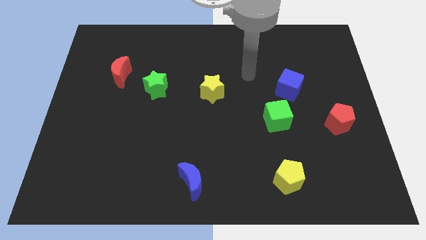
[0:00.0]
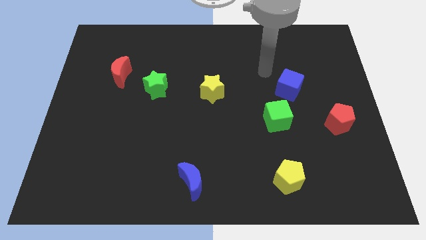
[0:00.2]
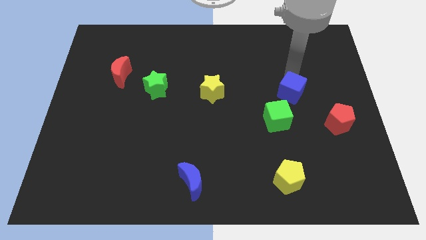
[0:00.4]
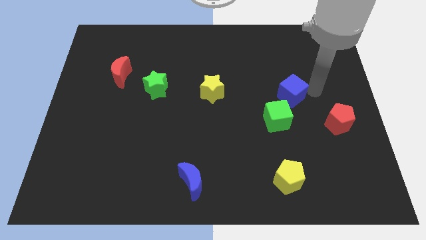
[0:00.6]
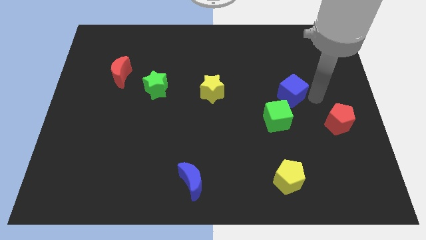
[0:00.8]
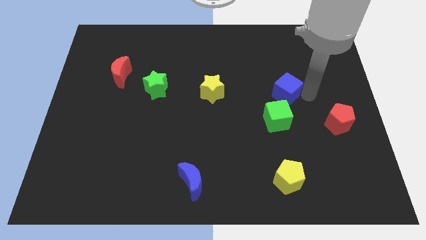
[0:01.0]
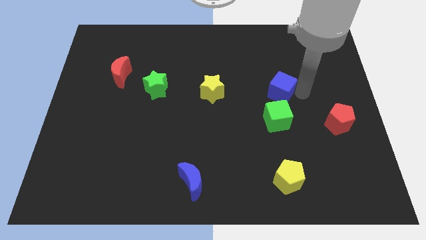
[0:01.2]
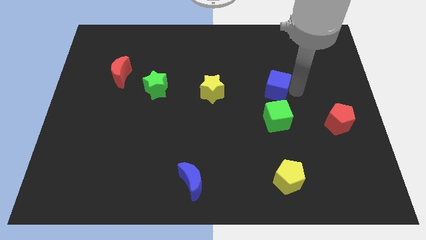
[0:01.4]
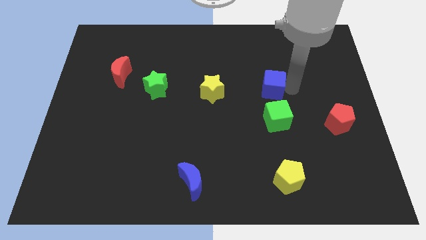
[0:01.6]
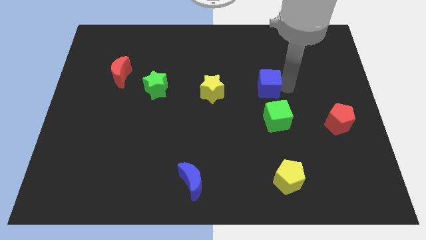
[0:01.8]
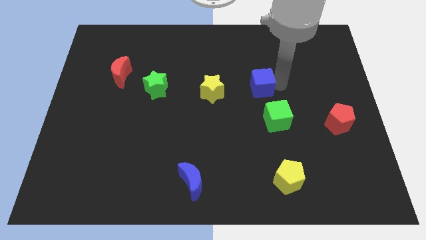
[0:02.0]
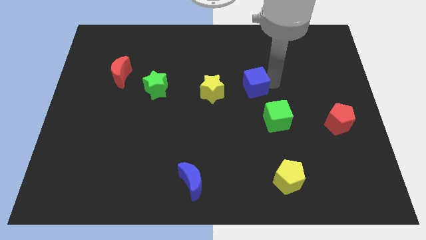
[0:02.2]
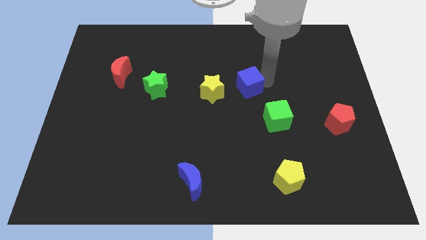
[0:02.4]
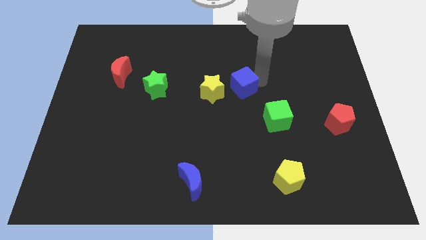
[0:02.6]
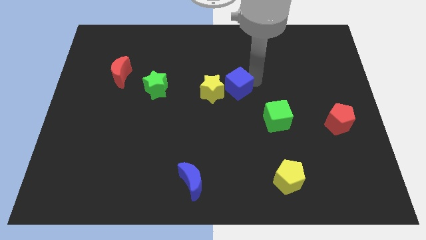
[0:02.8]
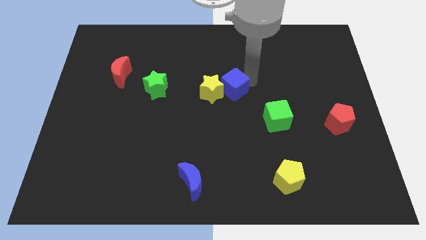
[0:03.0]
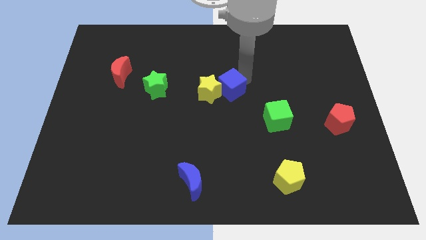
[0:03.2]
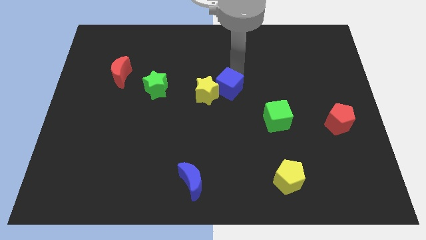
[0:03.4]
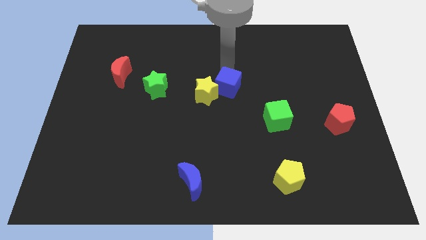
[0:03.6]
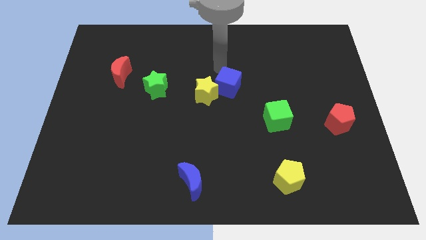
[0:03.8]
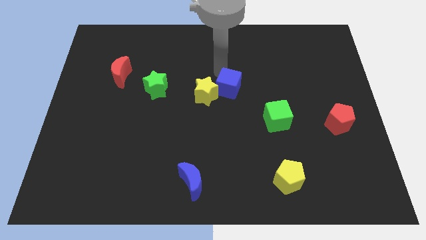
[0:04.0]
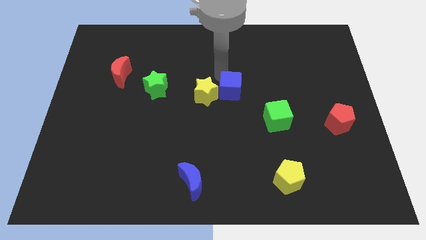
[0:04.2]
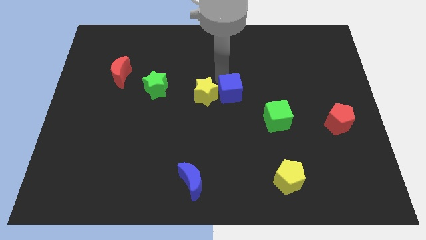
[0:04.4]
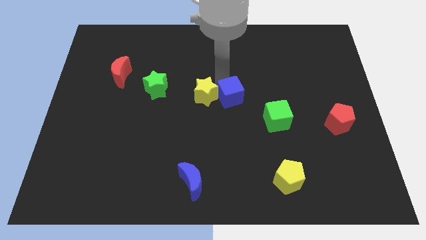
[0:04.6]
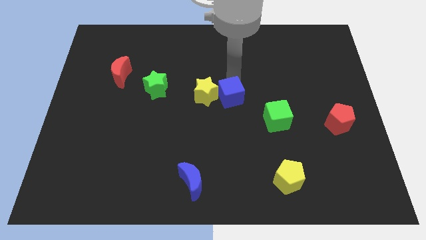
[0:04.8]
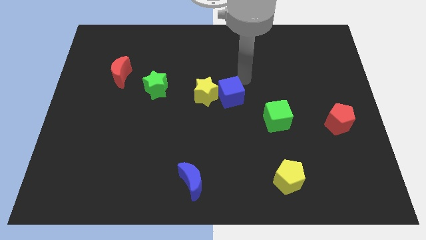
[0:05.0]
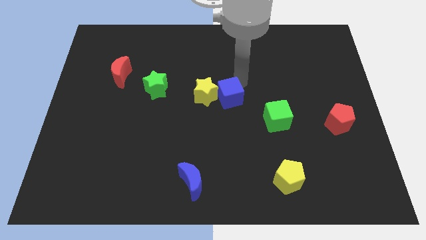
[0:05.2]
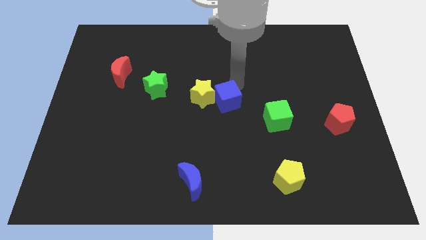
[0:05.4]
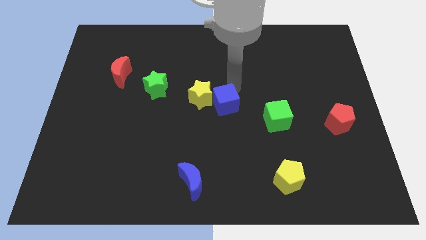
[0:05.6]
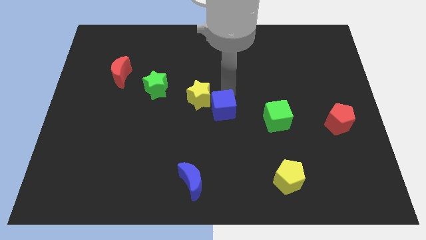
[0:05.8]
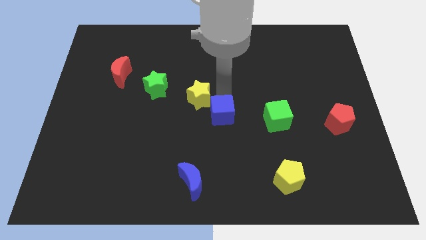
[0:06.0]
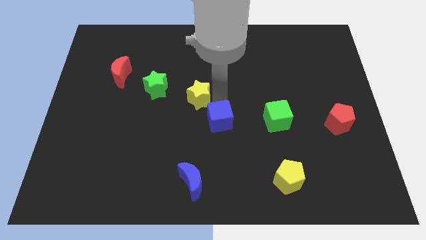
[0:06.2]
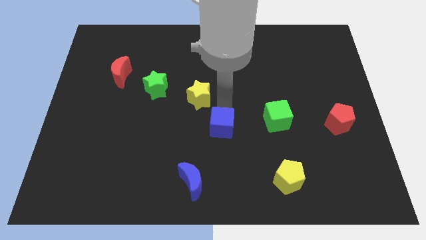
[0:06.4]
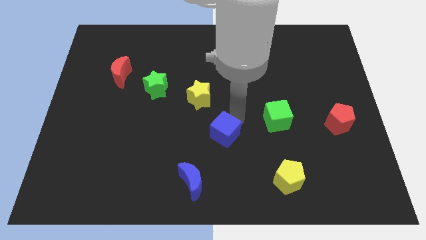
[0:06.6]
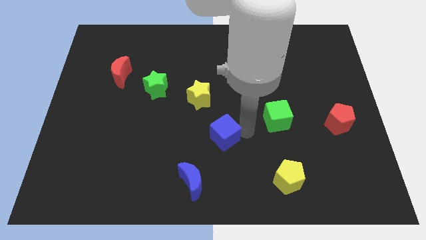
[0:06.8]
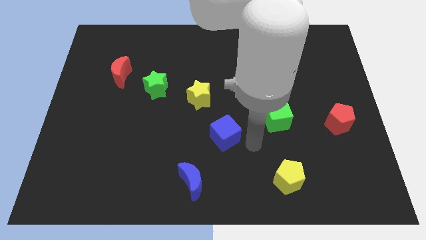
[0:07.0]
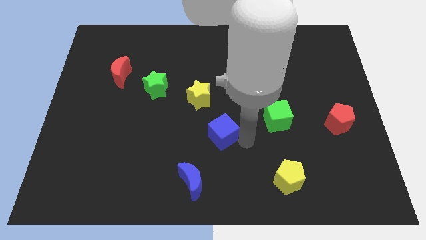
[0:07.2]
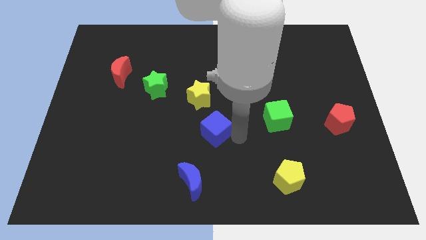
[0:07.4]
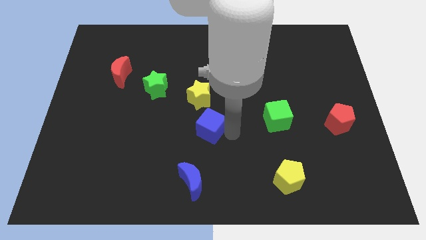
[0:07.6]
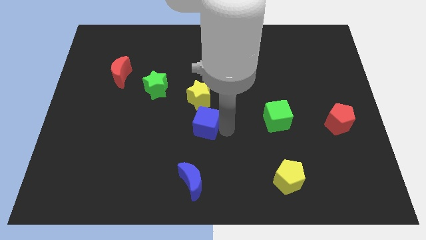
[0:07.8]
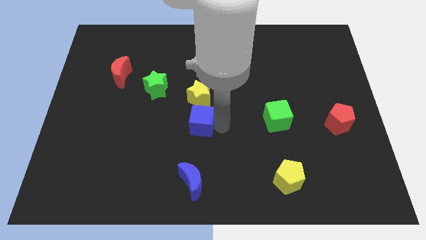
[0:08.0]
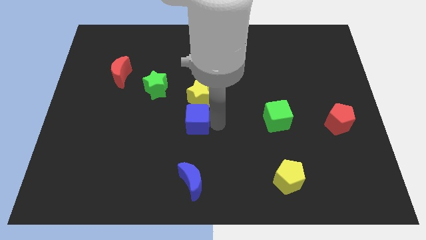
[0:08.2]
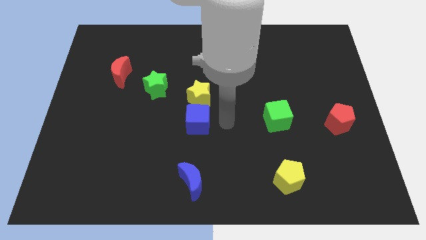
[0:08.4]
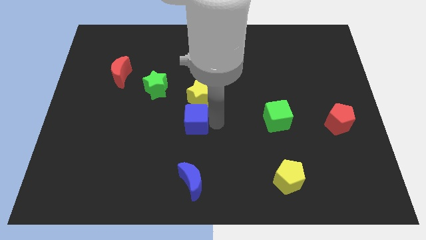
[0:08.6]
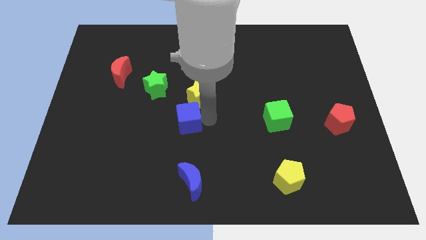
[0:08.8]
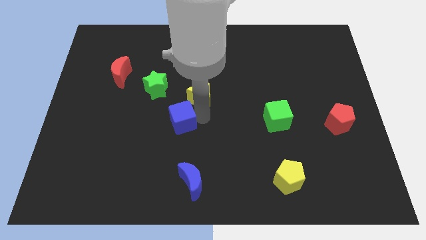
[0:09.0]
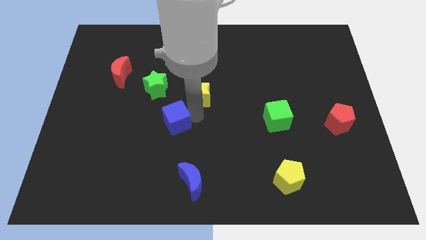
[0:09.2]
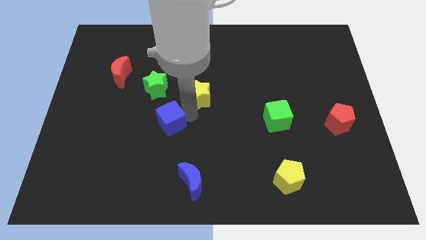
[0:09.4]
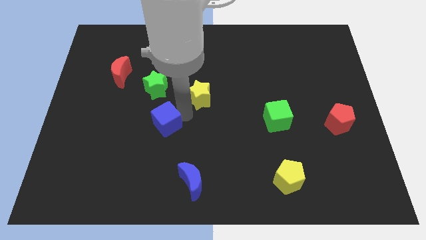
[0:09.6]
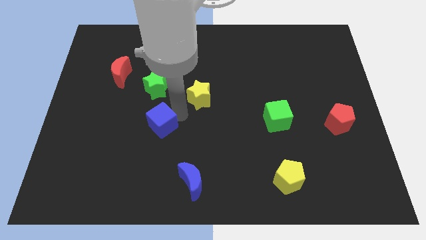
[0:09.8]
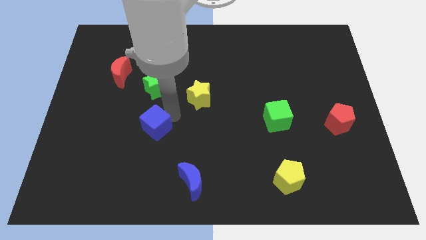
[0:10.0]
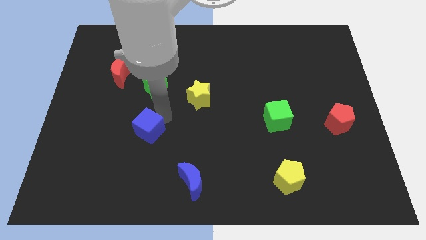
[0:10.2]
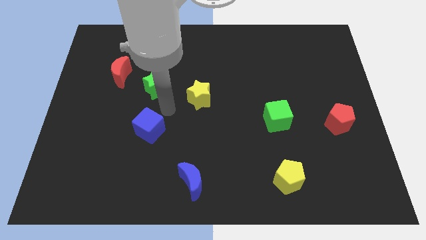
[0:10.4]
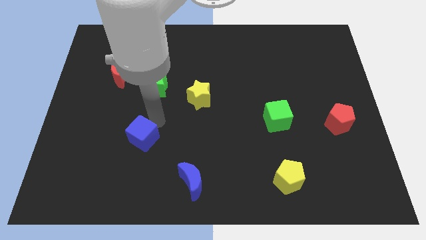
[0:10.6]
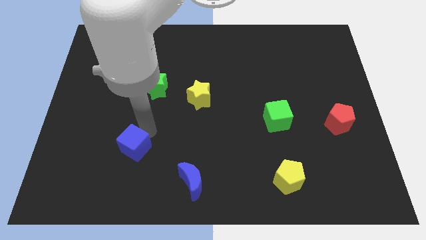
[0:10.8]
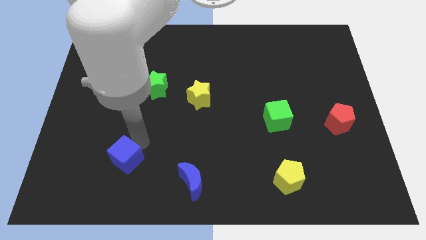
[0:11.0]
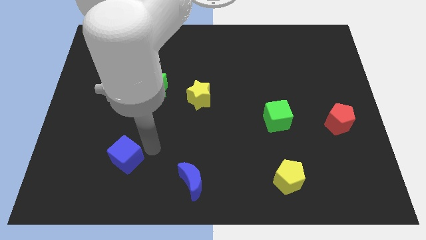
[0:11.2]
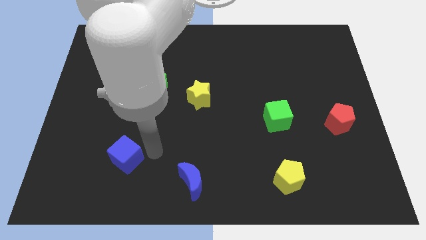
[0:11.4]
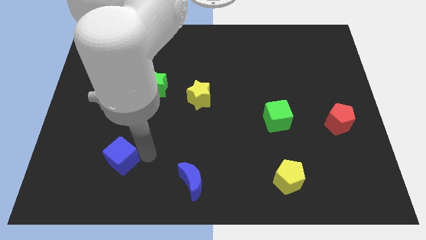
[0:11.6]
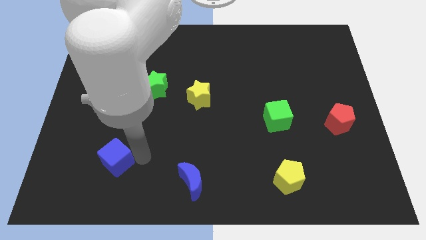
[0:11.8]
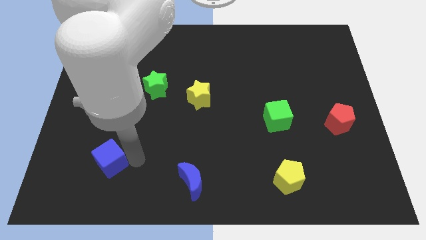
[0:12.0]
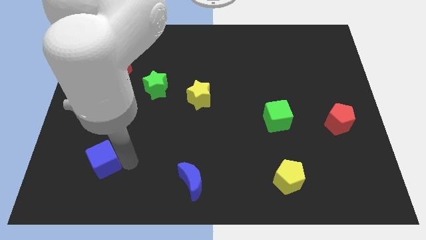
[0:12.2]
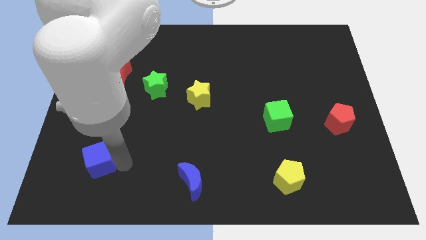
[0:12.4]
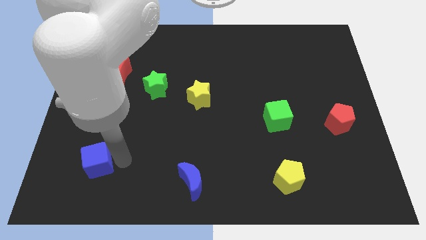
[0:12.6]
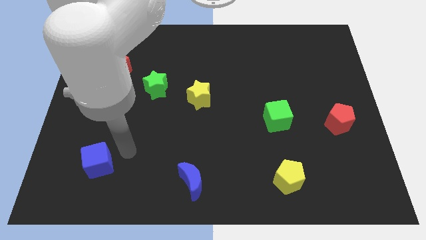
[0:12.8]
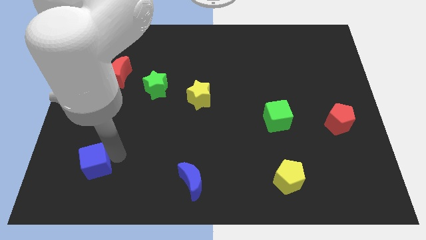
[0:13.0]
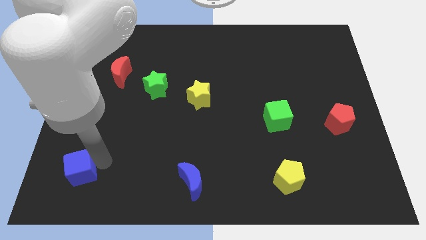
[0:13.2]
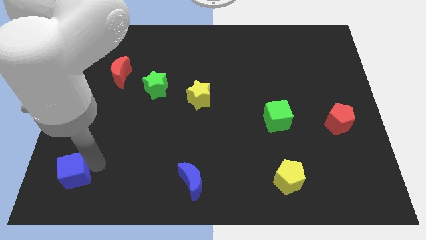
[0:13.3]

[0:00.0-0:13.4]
put the blue cube to the bottom left corner

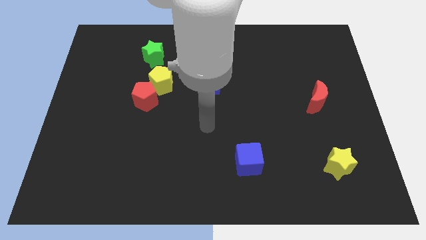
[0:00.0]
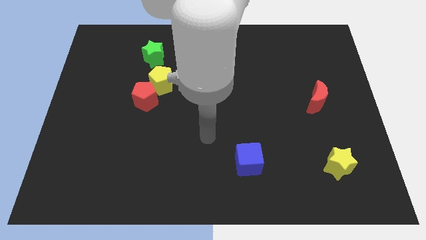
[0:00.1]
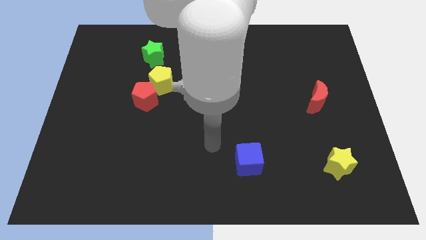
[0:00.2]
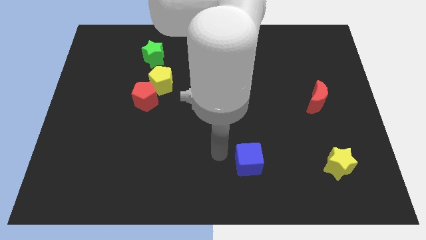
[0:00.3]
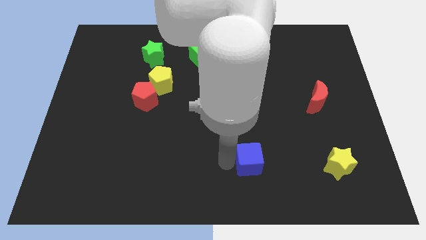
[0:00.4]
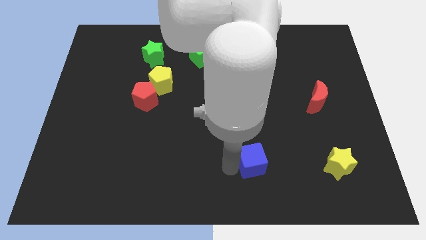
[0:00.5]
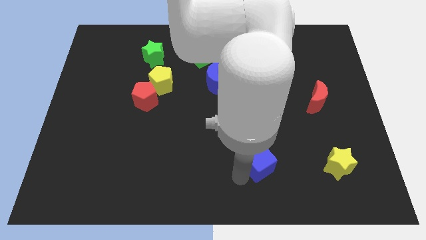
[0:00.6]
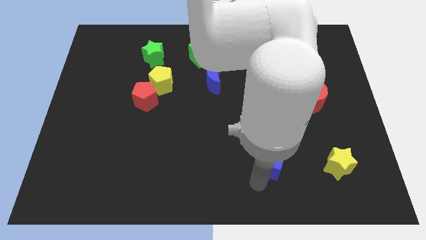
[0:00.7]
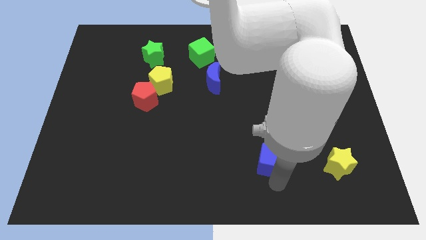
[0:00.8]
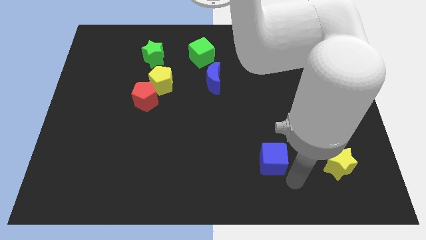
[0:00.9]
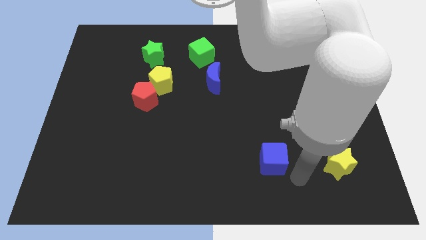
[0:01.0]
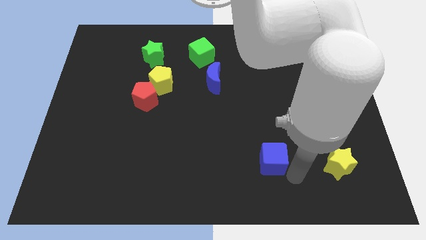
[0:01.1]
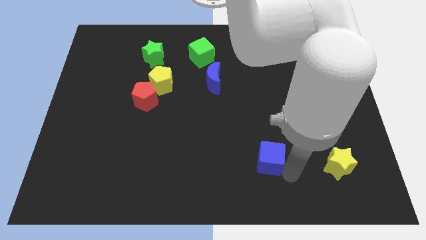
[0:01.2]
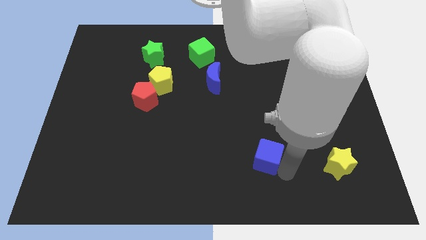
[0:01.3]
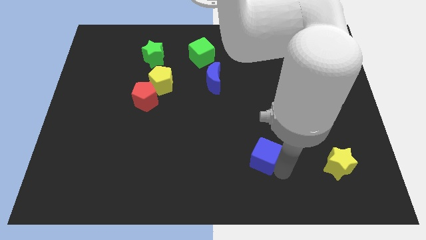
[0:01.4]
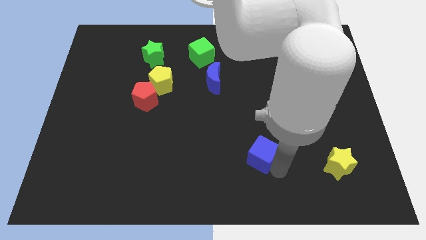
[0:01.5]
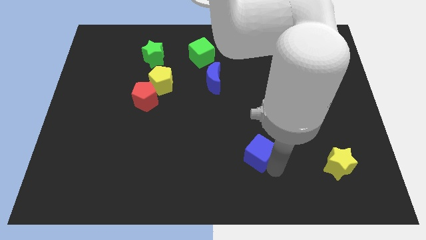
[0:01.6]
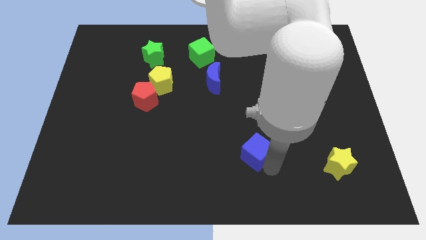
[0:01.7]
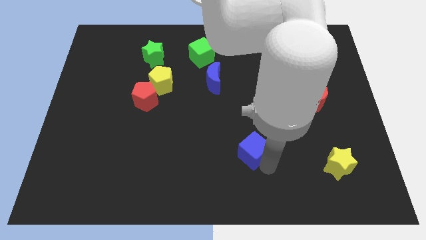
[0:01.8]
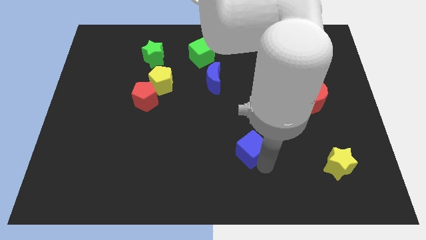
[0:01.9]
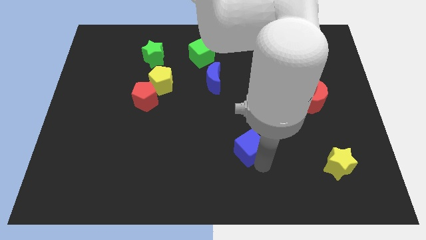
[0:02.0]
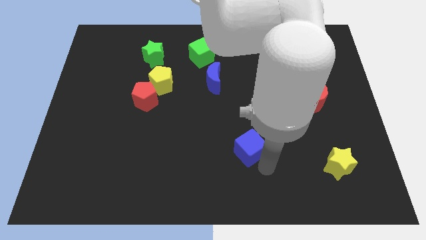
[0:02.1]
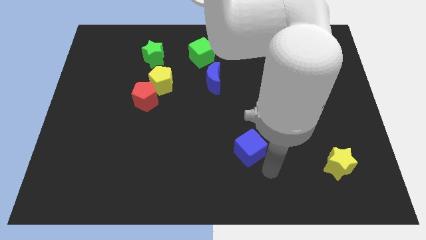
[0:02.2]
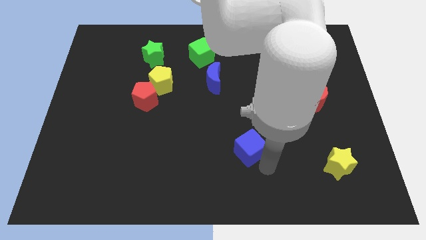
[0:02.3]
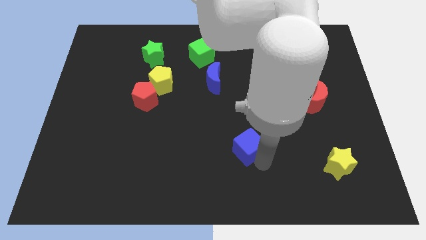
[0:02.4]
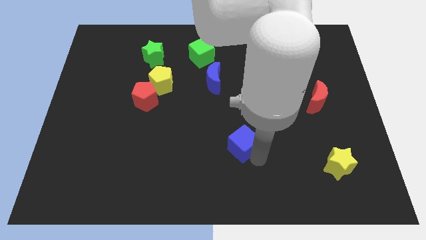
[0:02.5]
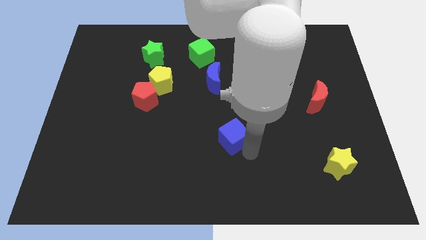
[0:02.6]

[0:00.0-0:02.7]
slide the blue cube to the center of the board
